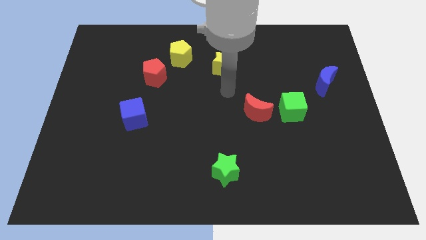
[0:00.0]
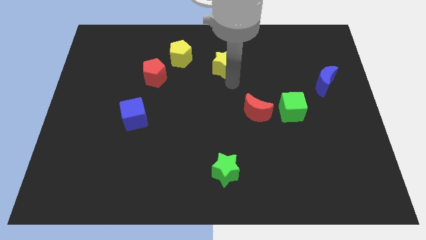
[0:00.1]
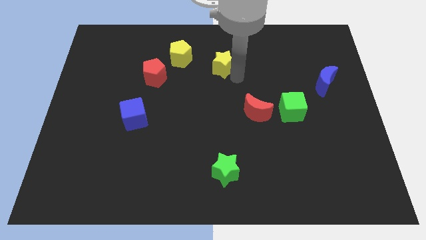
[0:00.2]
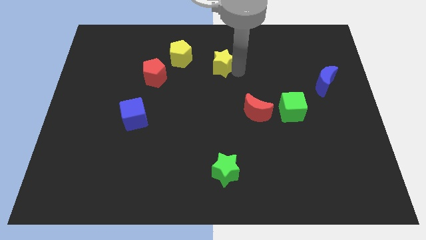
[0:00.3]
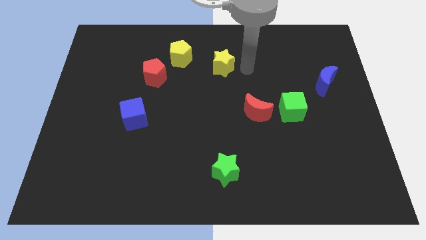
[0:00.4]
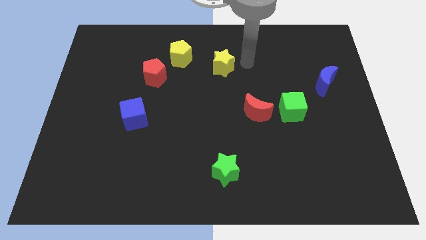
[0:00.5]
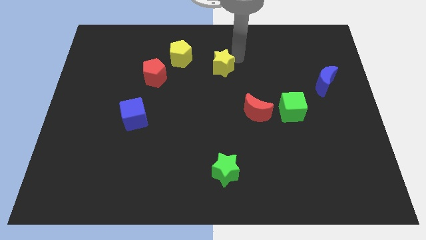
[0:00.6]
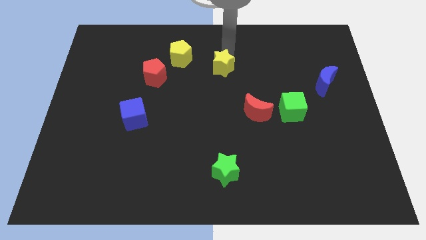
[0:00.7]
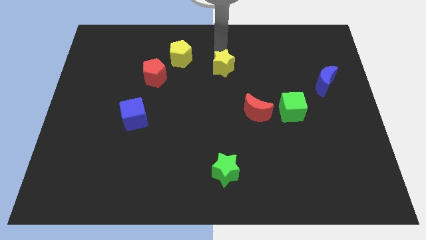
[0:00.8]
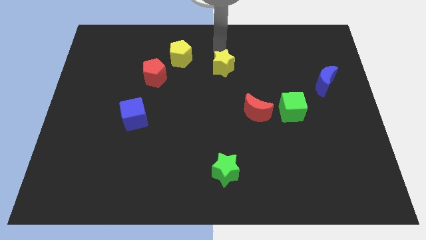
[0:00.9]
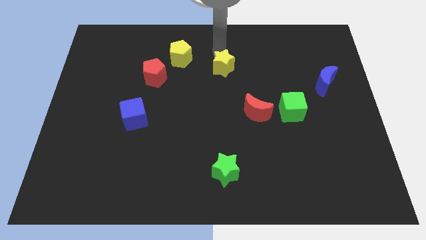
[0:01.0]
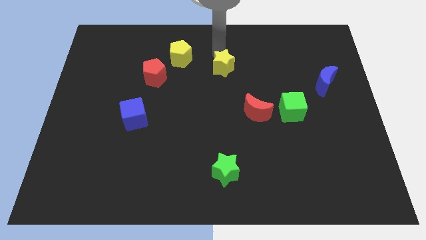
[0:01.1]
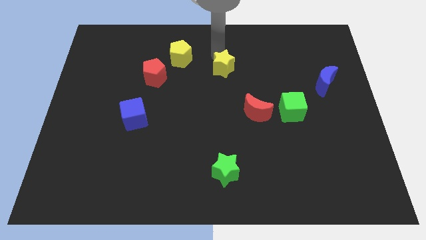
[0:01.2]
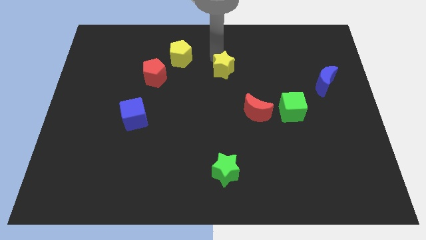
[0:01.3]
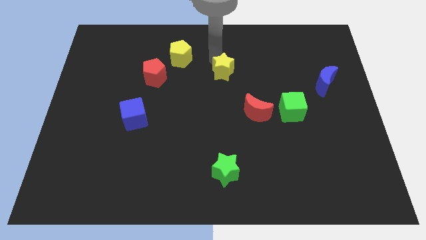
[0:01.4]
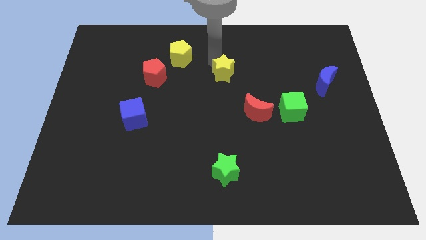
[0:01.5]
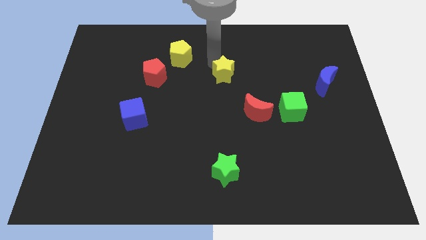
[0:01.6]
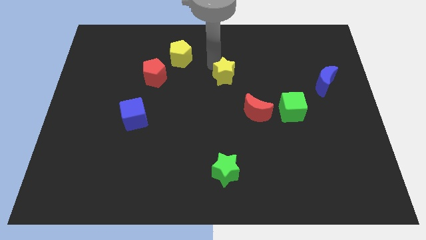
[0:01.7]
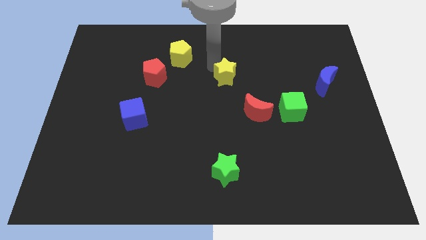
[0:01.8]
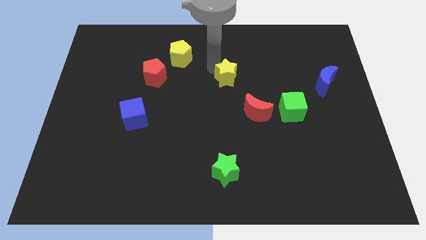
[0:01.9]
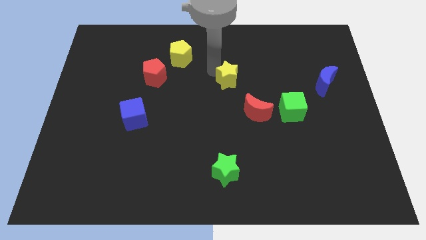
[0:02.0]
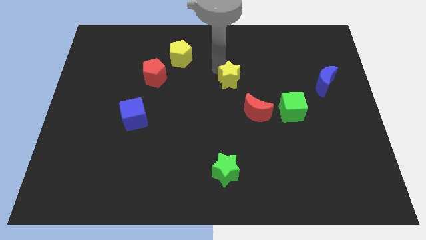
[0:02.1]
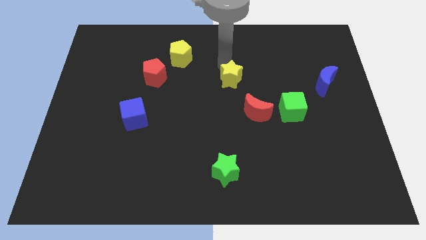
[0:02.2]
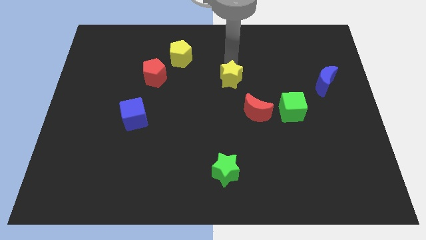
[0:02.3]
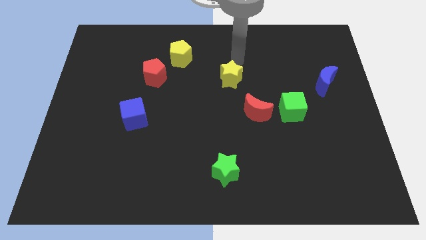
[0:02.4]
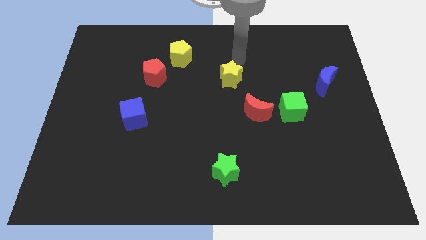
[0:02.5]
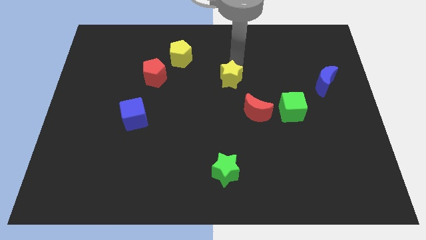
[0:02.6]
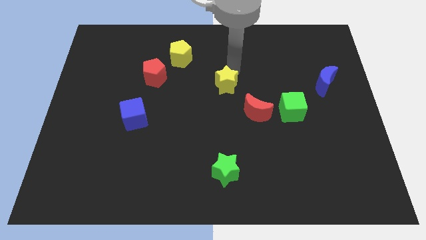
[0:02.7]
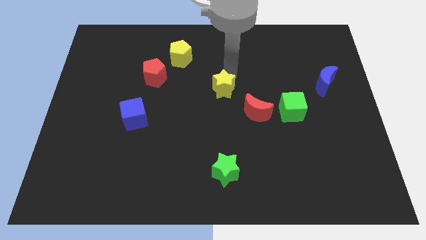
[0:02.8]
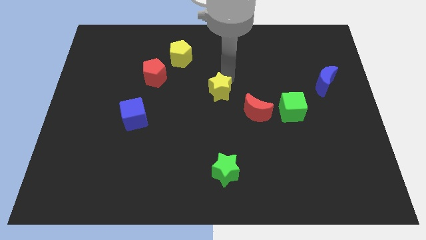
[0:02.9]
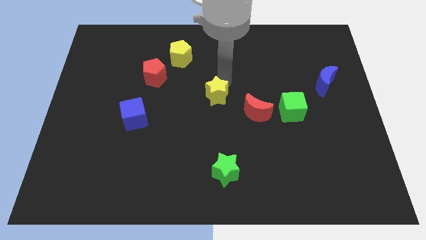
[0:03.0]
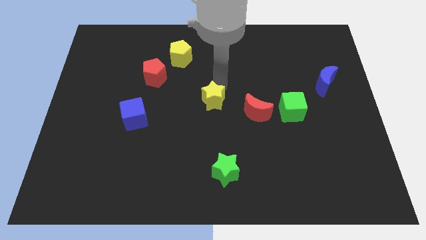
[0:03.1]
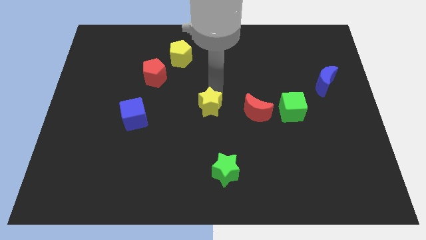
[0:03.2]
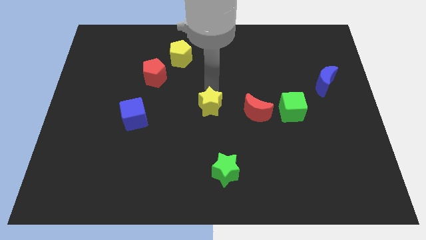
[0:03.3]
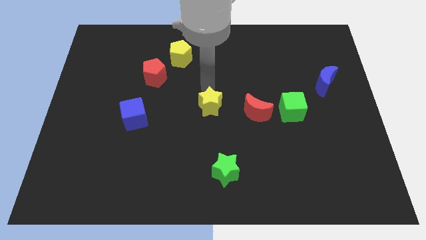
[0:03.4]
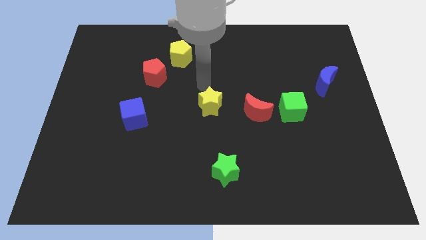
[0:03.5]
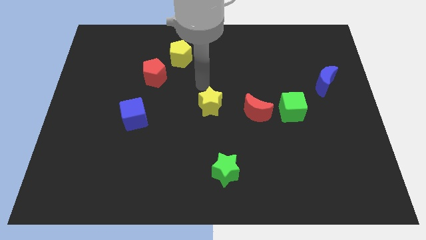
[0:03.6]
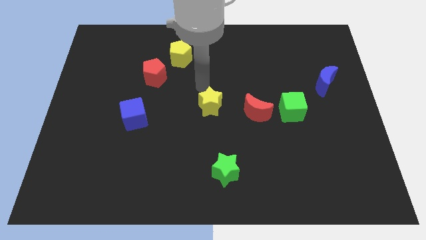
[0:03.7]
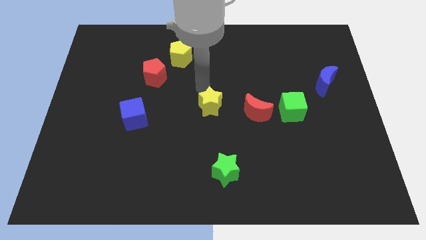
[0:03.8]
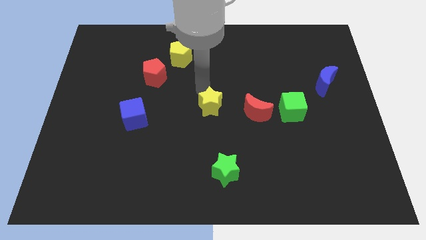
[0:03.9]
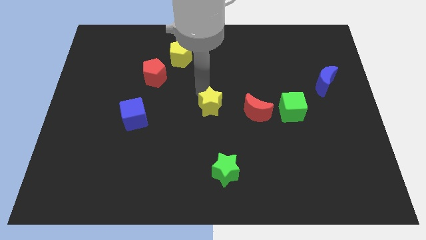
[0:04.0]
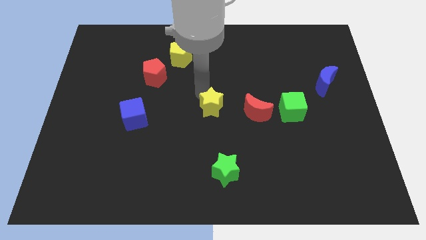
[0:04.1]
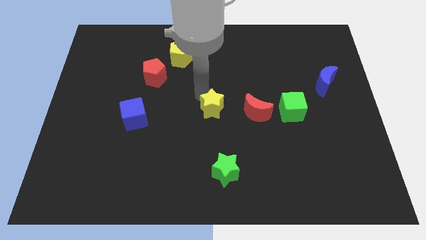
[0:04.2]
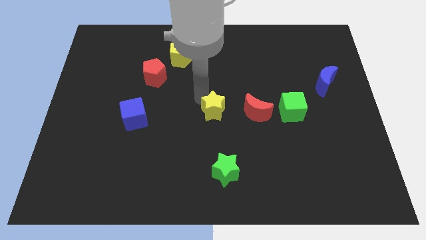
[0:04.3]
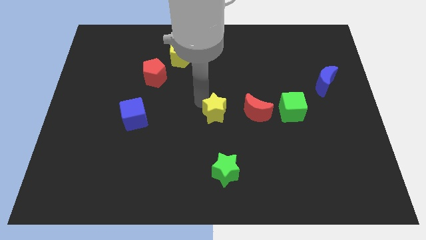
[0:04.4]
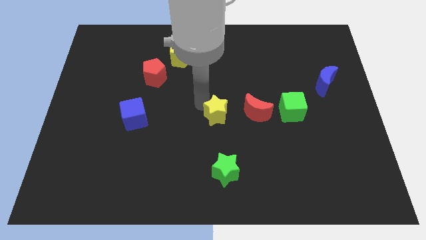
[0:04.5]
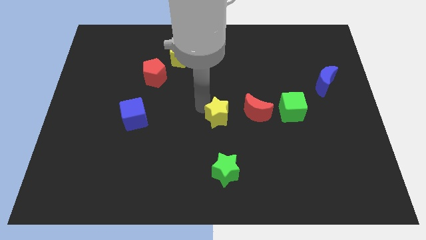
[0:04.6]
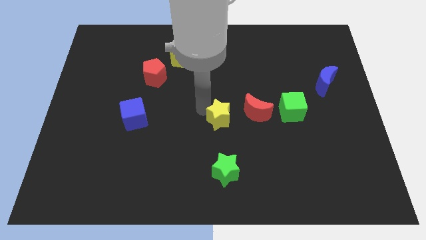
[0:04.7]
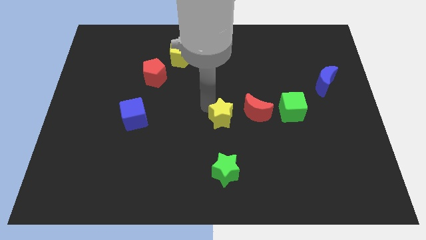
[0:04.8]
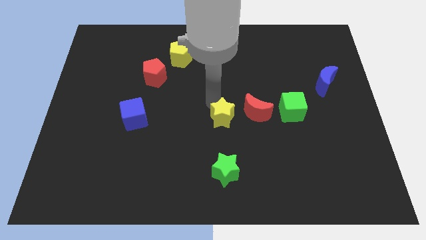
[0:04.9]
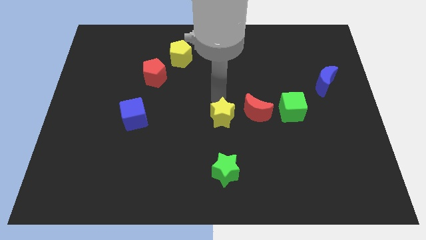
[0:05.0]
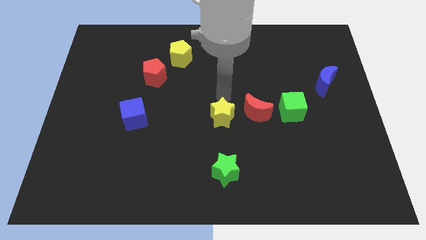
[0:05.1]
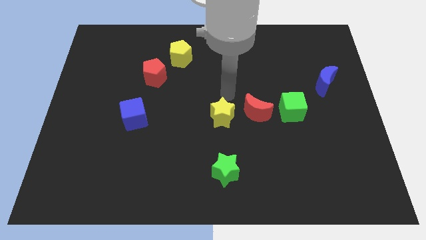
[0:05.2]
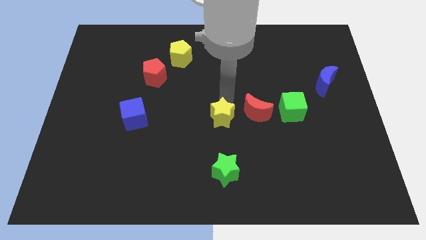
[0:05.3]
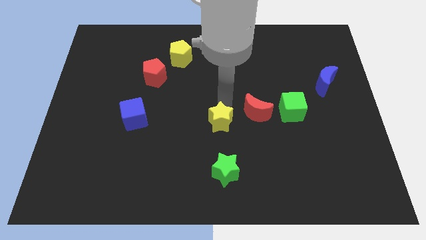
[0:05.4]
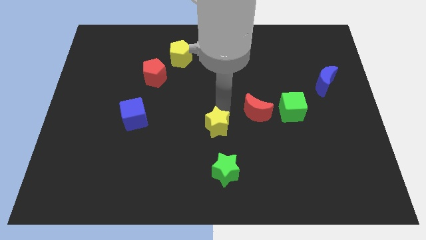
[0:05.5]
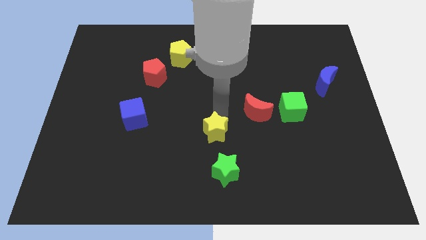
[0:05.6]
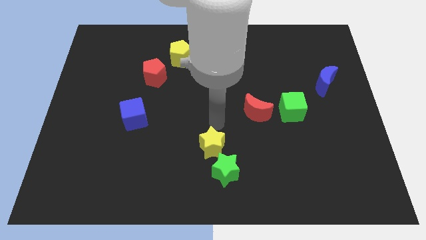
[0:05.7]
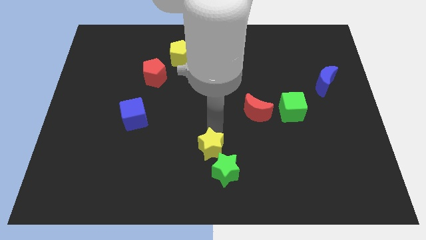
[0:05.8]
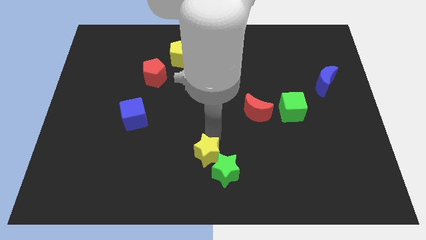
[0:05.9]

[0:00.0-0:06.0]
slide the yellow star to the bottom
